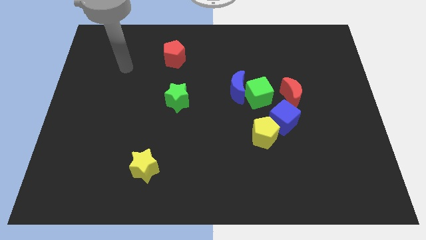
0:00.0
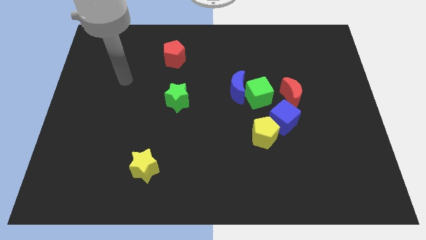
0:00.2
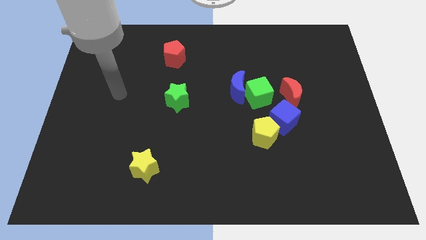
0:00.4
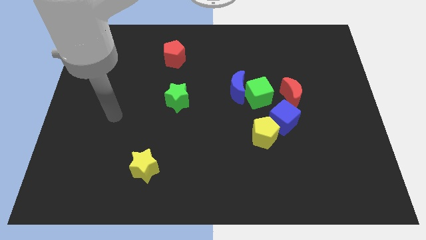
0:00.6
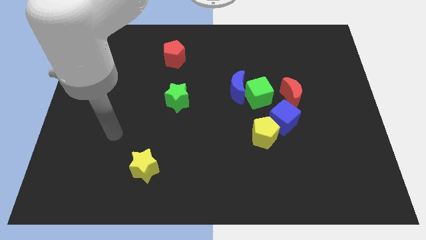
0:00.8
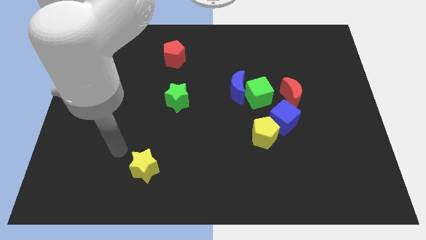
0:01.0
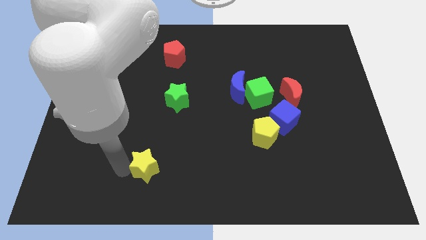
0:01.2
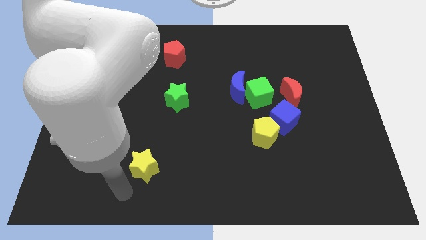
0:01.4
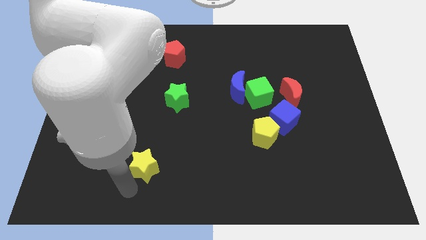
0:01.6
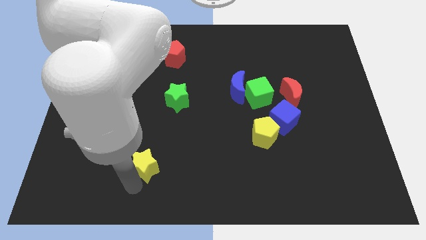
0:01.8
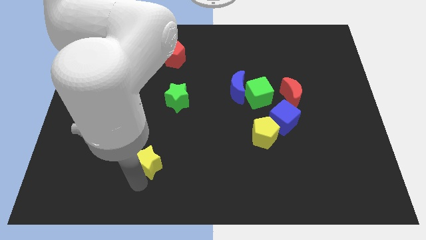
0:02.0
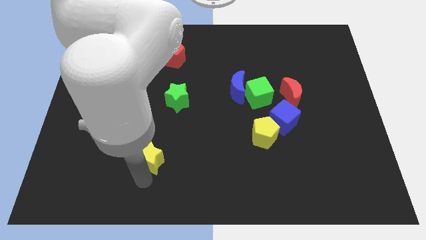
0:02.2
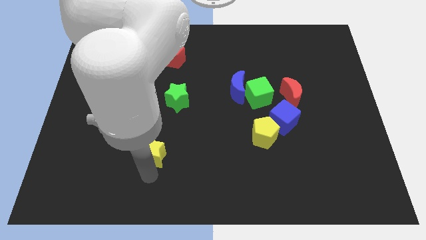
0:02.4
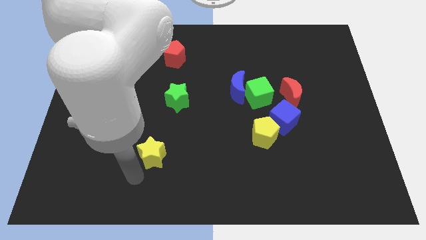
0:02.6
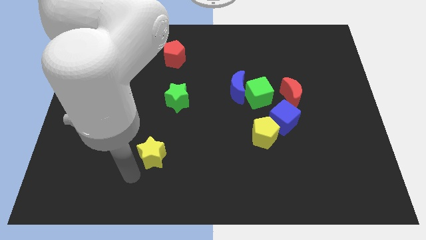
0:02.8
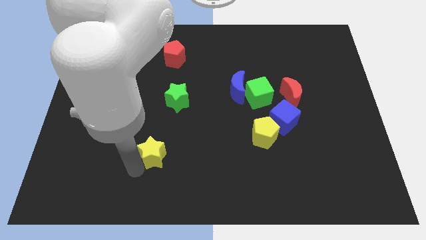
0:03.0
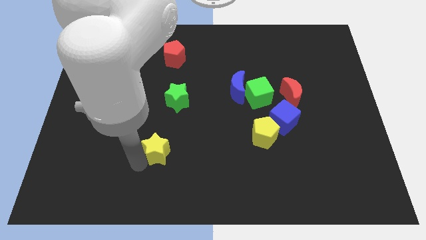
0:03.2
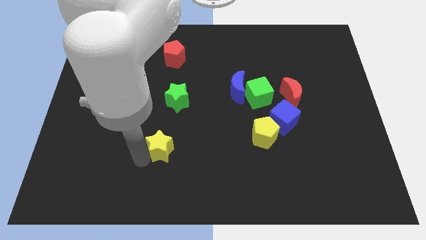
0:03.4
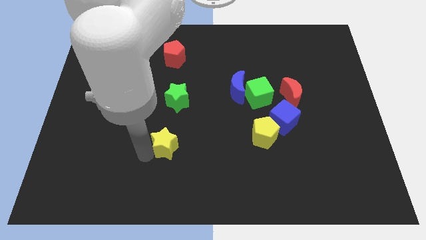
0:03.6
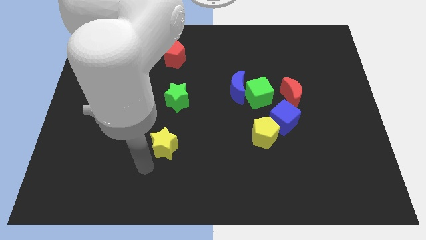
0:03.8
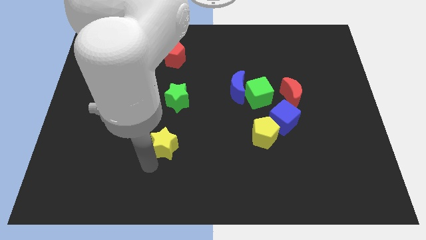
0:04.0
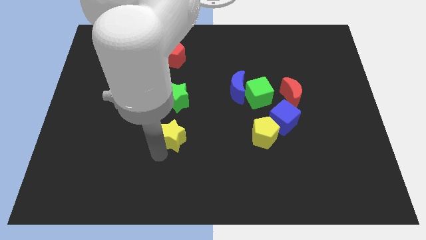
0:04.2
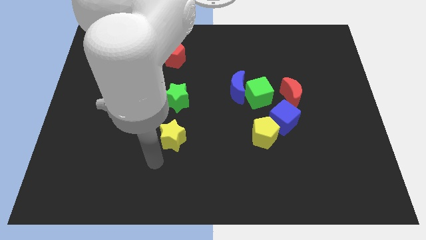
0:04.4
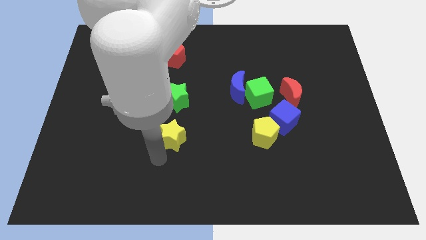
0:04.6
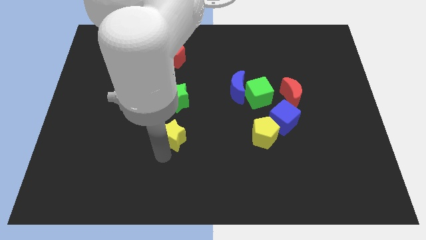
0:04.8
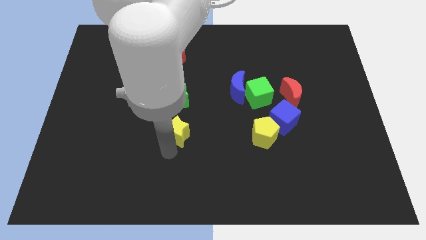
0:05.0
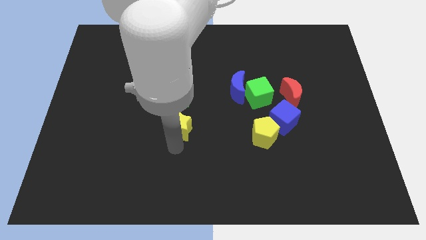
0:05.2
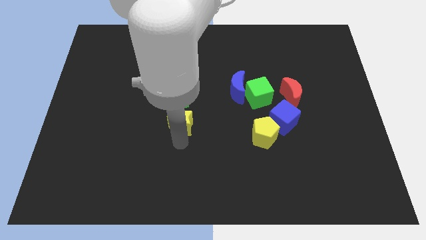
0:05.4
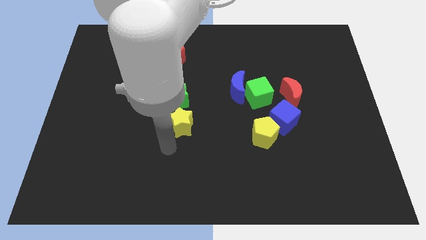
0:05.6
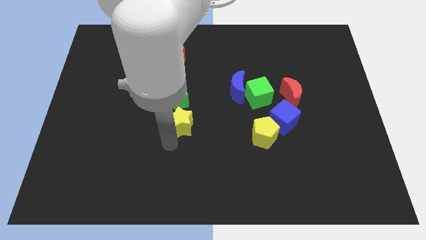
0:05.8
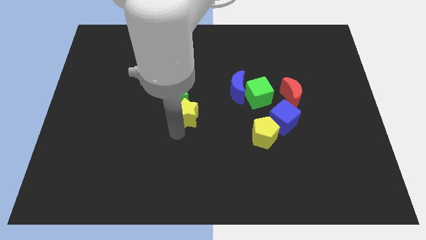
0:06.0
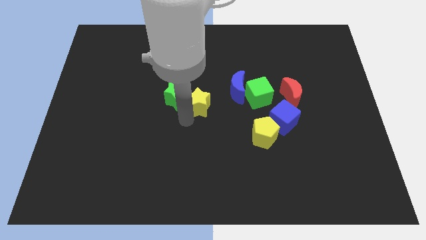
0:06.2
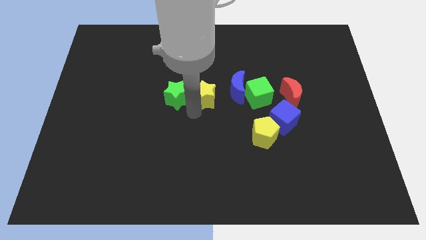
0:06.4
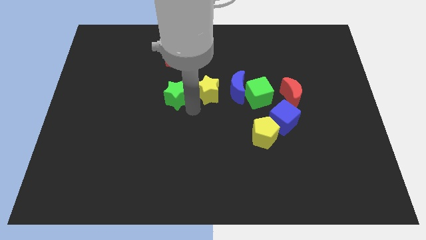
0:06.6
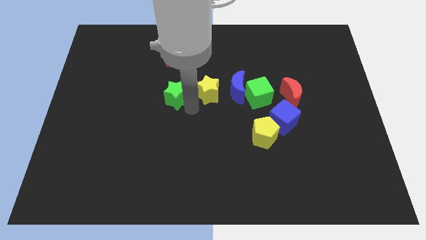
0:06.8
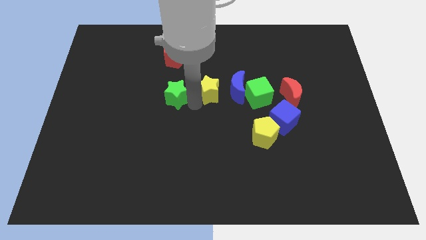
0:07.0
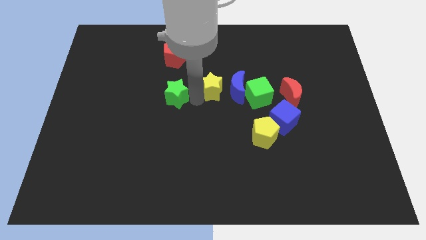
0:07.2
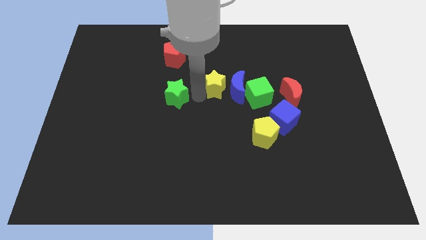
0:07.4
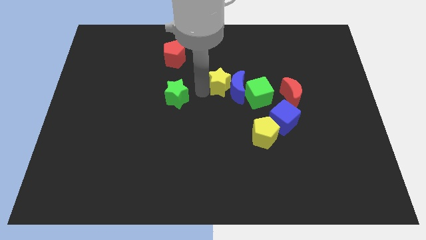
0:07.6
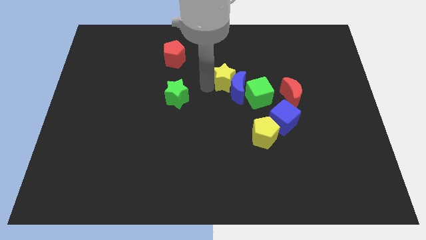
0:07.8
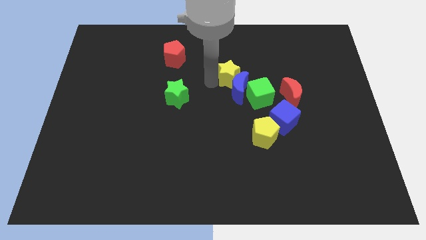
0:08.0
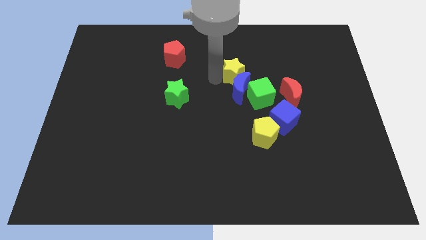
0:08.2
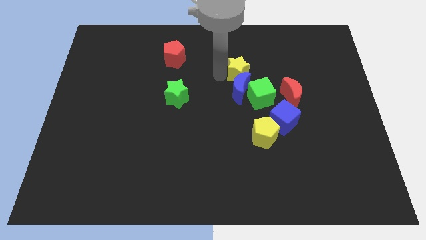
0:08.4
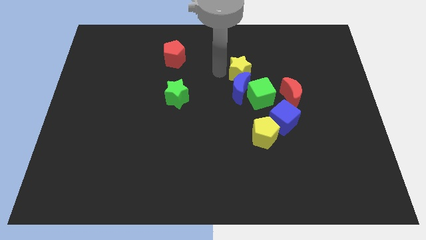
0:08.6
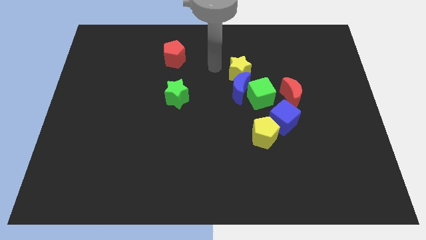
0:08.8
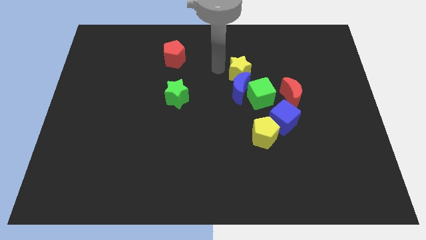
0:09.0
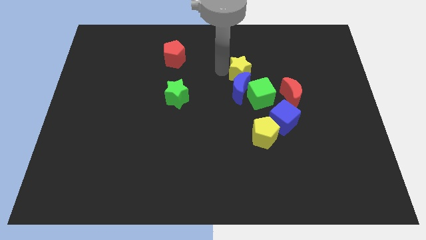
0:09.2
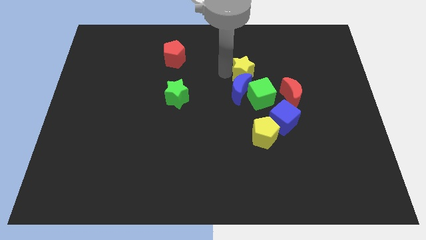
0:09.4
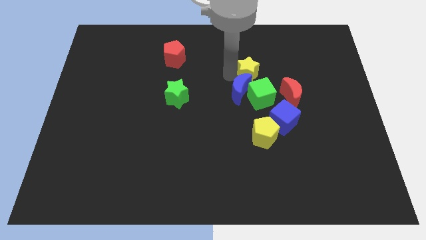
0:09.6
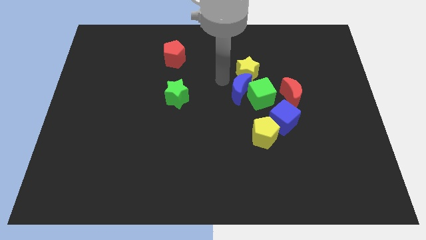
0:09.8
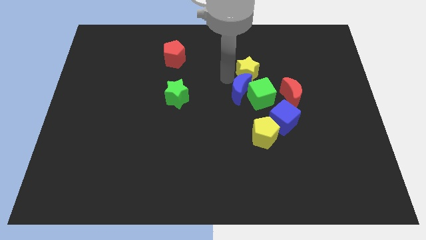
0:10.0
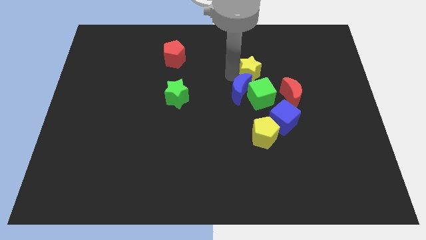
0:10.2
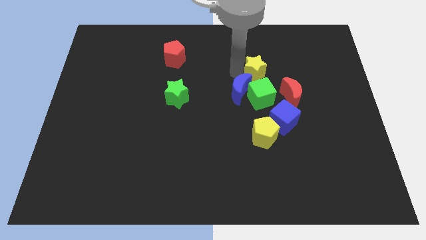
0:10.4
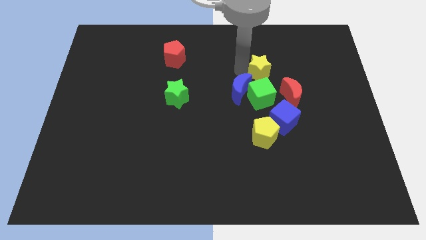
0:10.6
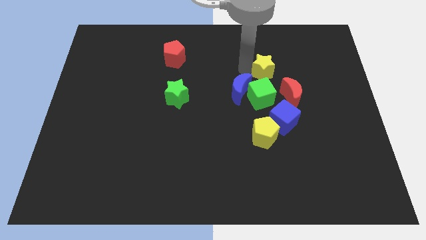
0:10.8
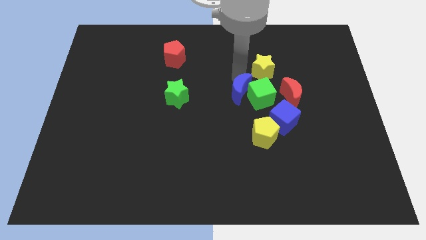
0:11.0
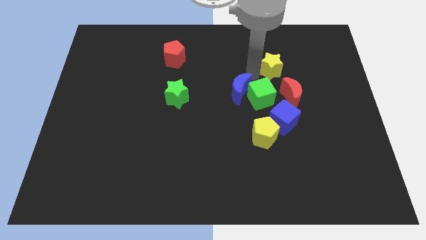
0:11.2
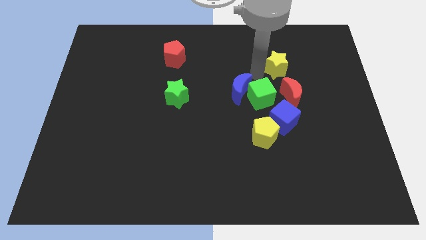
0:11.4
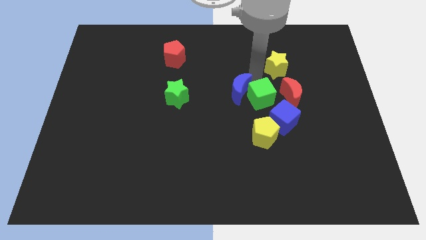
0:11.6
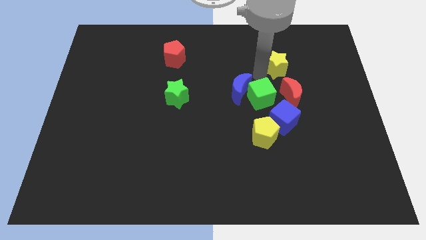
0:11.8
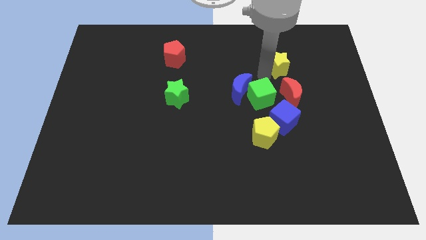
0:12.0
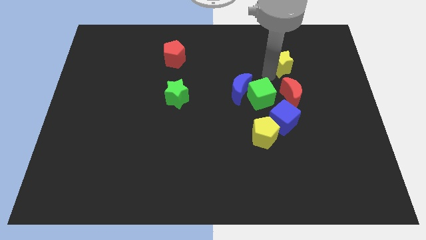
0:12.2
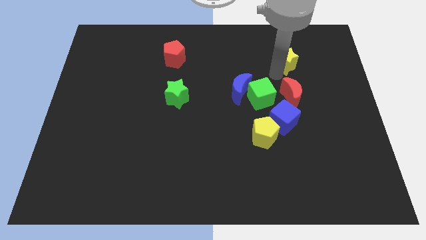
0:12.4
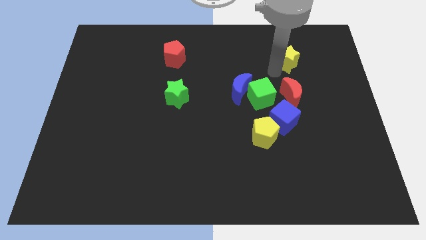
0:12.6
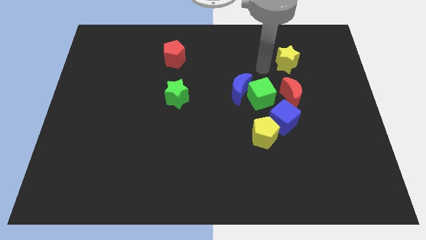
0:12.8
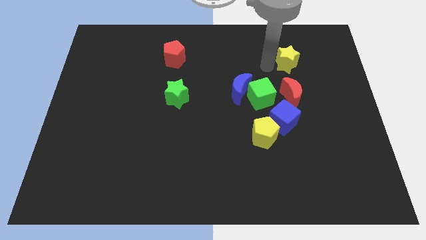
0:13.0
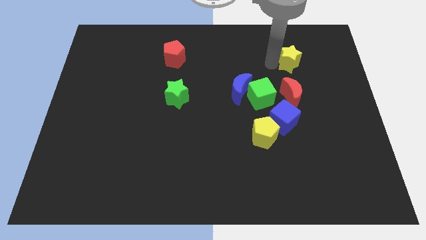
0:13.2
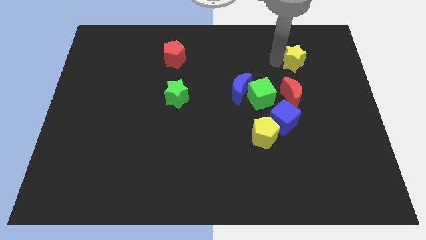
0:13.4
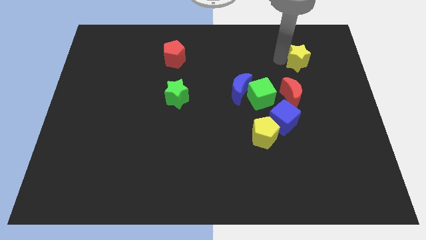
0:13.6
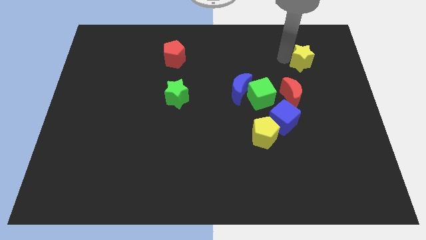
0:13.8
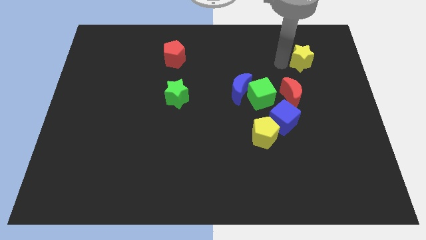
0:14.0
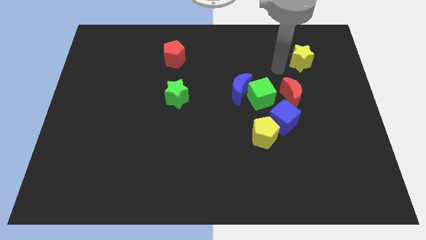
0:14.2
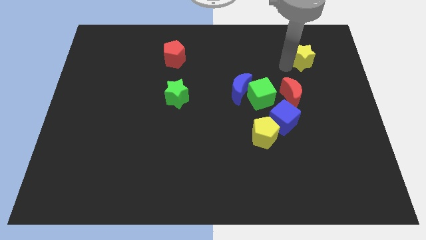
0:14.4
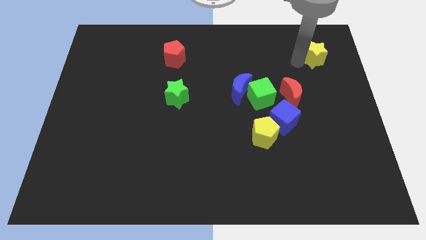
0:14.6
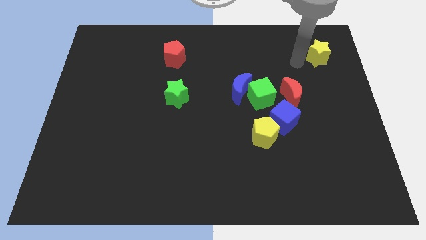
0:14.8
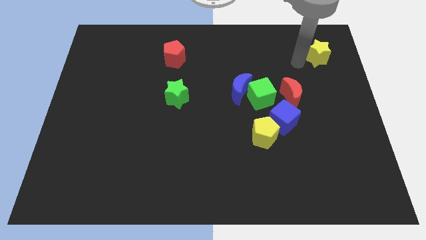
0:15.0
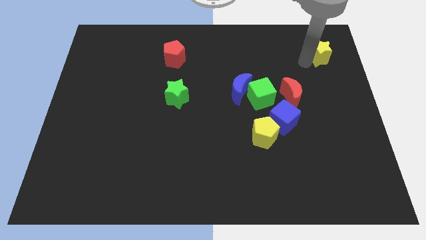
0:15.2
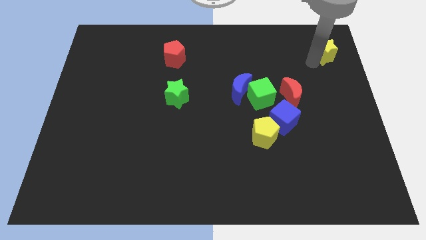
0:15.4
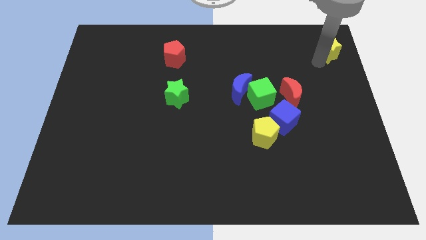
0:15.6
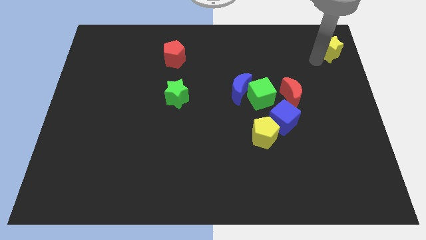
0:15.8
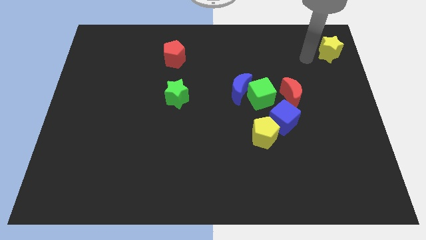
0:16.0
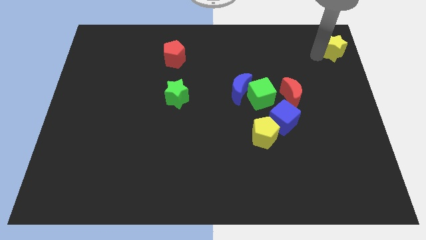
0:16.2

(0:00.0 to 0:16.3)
move the yellow star to the top right of the board
